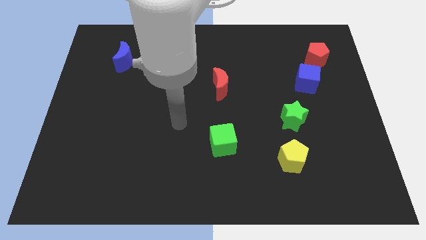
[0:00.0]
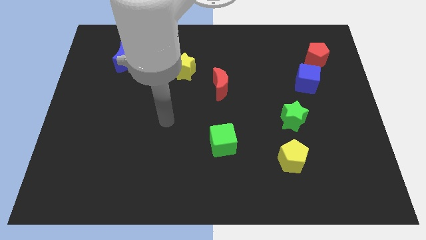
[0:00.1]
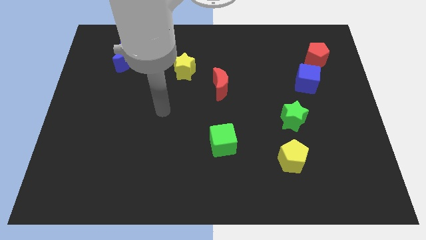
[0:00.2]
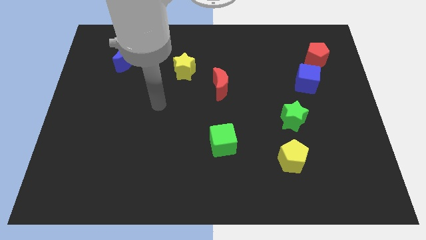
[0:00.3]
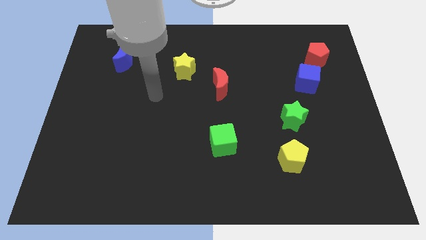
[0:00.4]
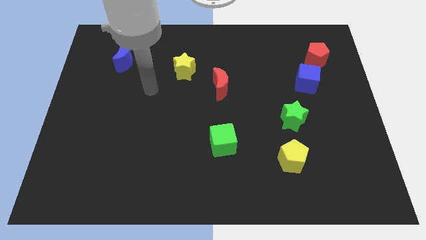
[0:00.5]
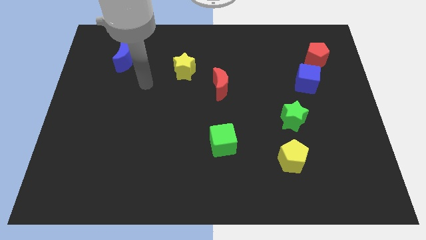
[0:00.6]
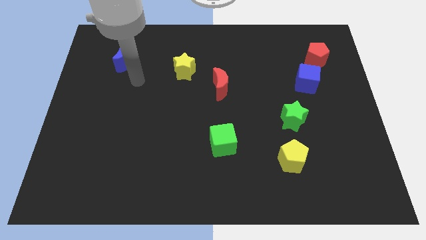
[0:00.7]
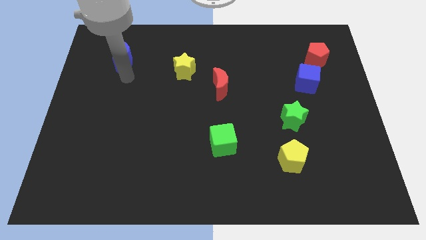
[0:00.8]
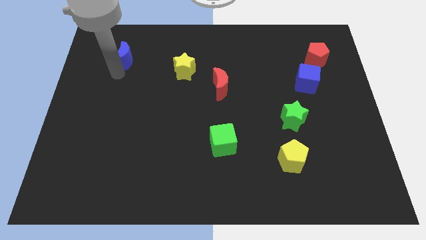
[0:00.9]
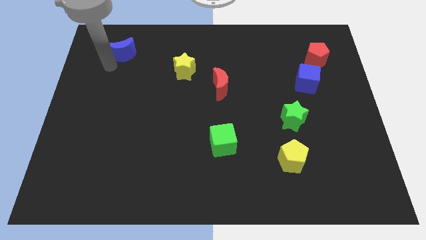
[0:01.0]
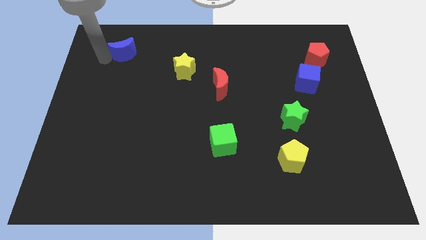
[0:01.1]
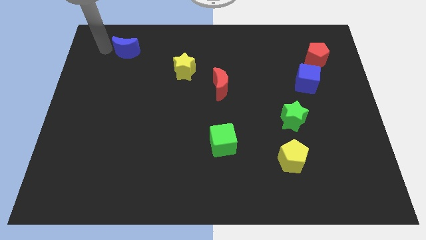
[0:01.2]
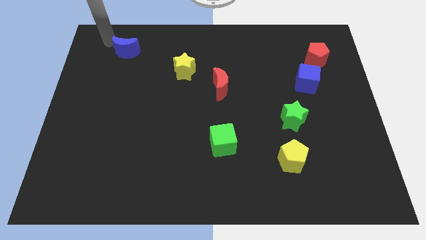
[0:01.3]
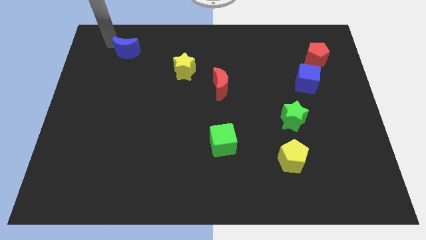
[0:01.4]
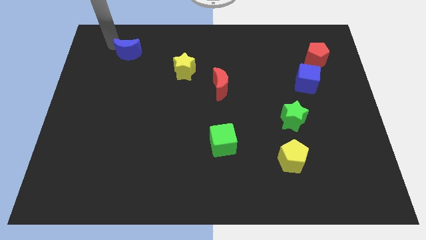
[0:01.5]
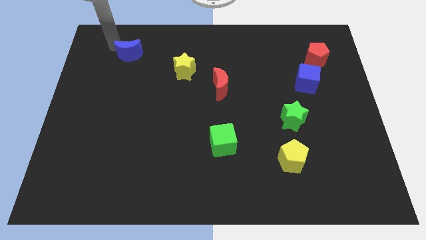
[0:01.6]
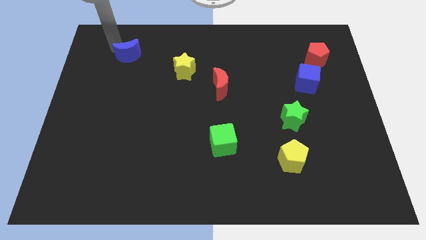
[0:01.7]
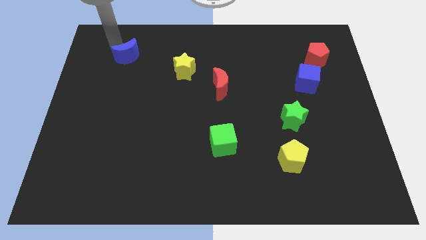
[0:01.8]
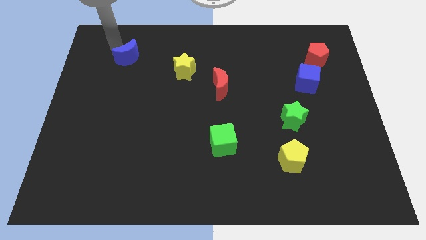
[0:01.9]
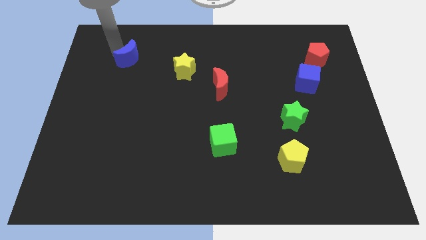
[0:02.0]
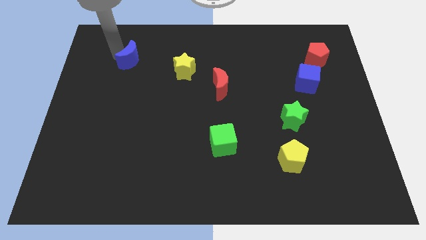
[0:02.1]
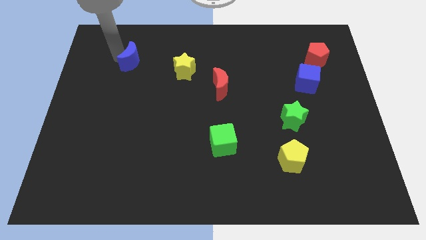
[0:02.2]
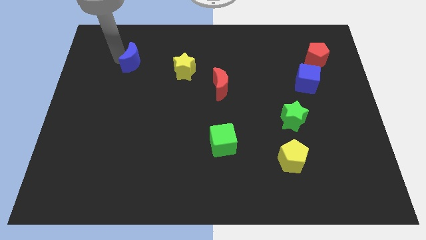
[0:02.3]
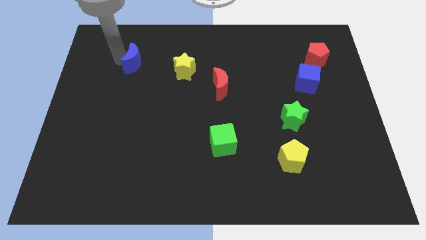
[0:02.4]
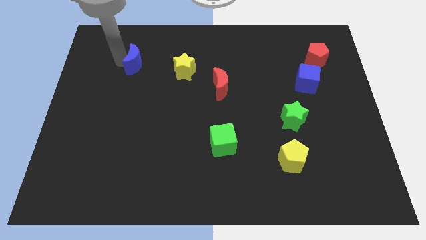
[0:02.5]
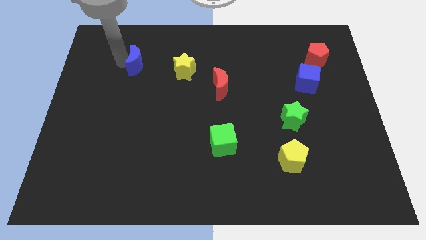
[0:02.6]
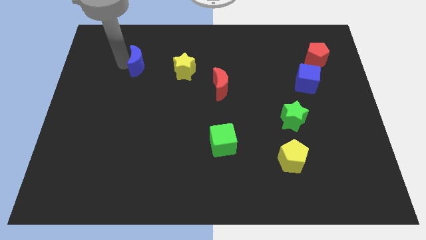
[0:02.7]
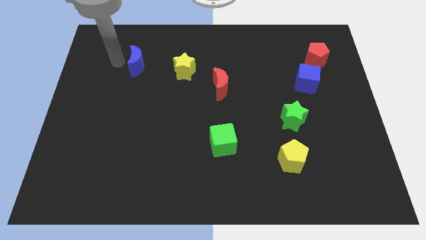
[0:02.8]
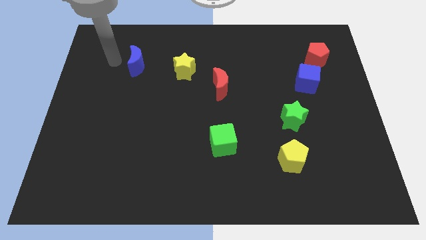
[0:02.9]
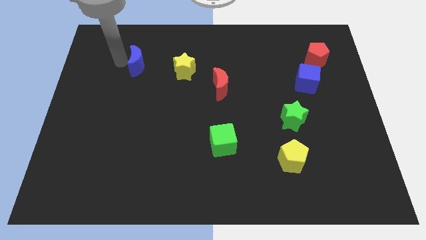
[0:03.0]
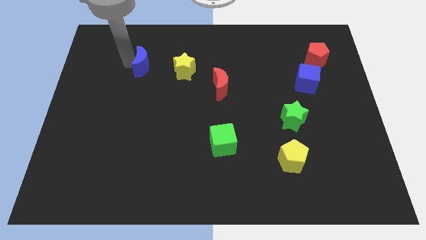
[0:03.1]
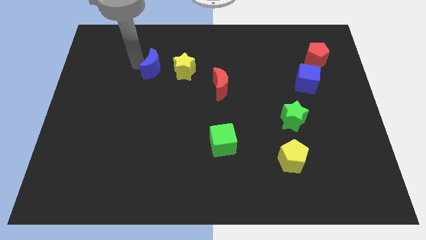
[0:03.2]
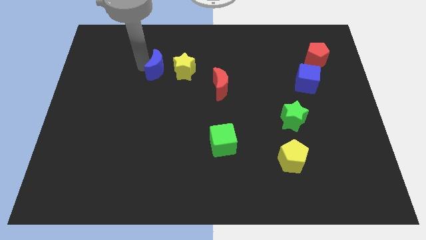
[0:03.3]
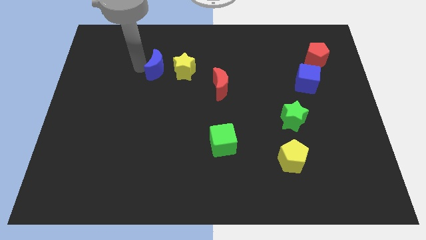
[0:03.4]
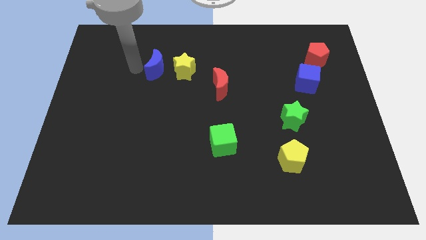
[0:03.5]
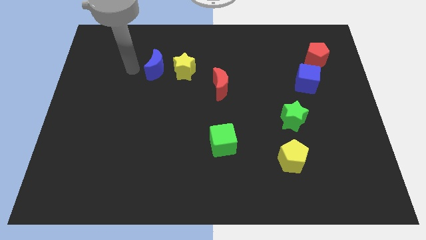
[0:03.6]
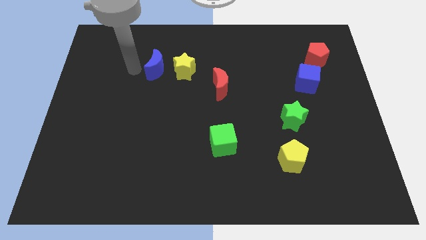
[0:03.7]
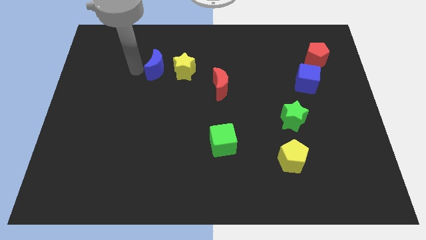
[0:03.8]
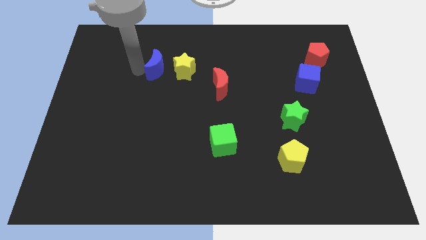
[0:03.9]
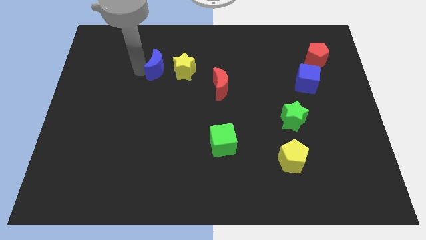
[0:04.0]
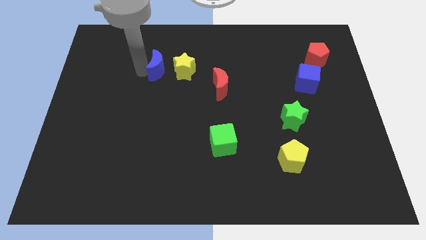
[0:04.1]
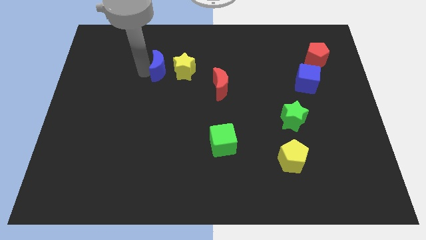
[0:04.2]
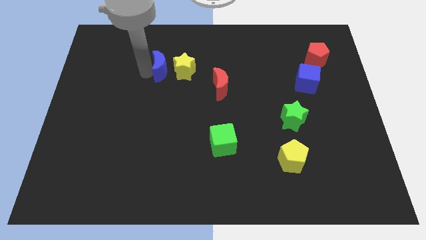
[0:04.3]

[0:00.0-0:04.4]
slide the blue moon to the yellow star

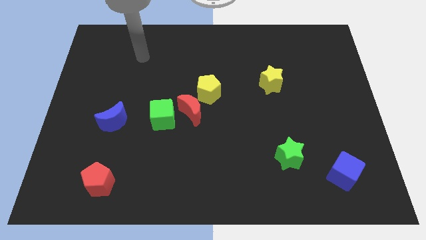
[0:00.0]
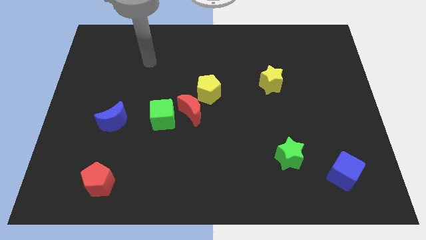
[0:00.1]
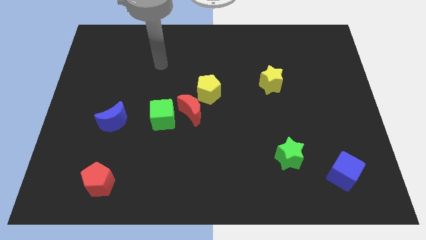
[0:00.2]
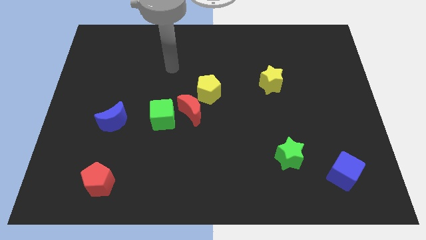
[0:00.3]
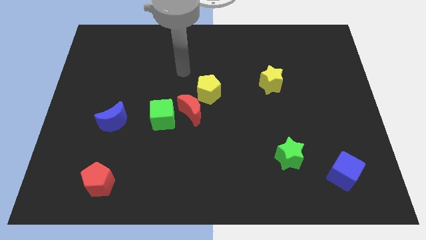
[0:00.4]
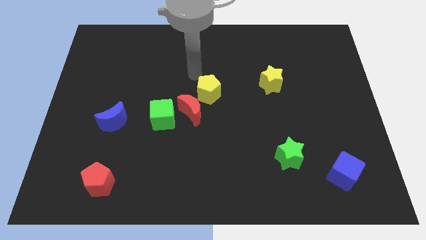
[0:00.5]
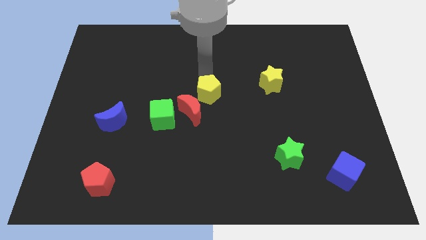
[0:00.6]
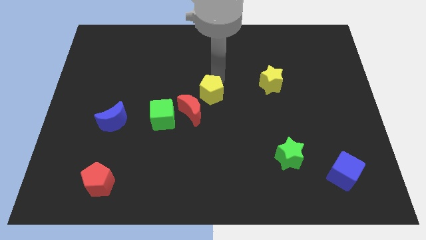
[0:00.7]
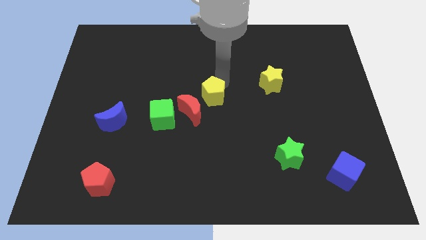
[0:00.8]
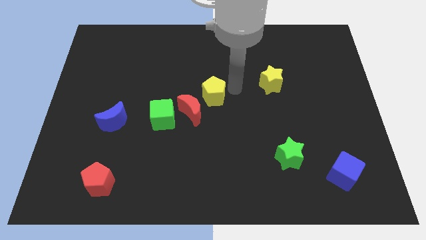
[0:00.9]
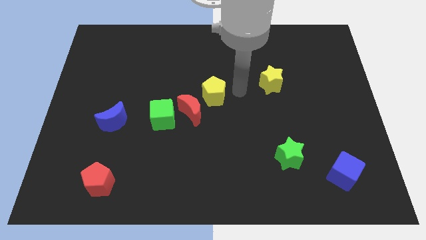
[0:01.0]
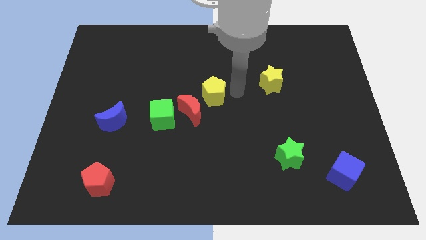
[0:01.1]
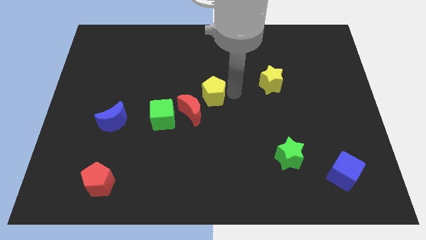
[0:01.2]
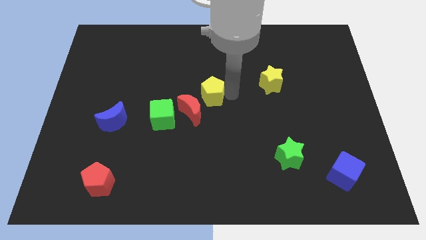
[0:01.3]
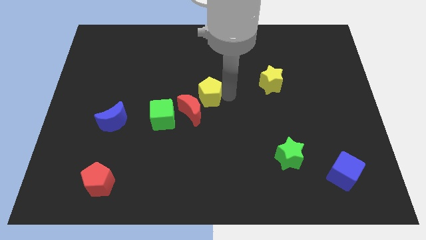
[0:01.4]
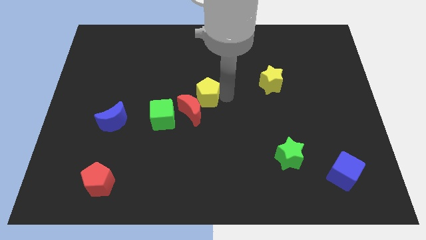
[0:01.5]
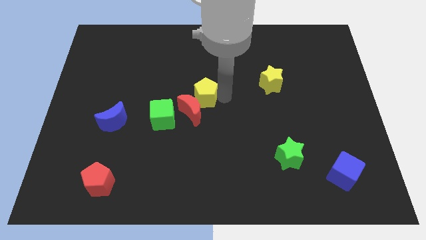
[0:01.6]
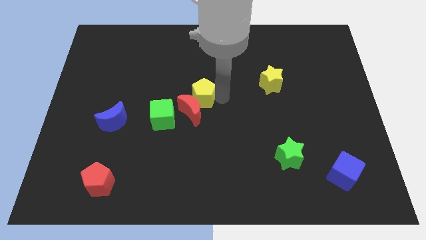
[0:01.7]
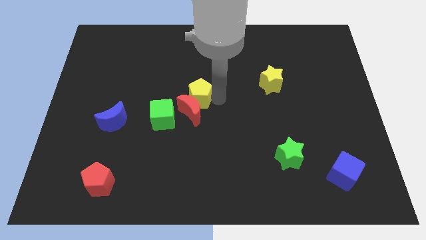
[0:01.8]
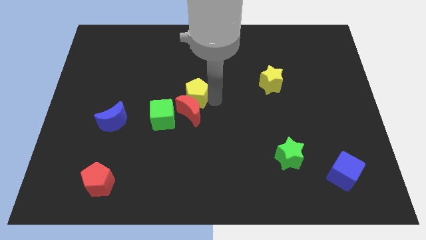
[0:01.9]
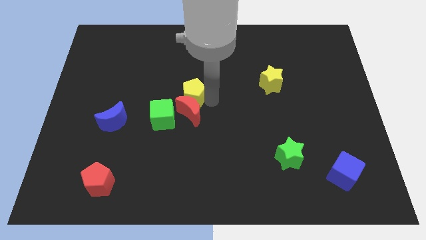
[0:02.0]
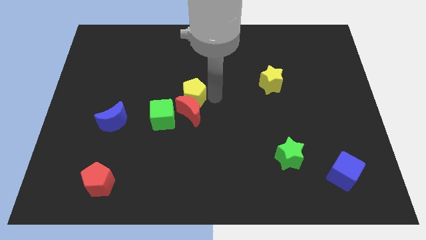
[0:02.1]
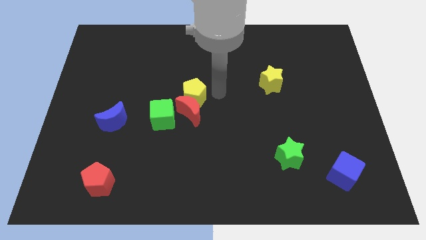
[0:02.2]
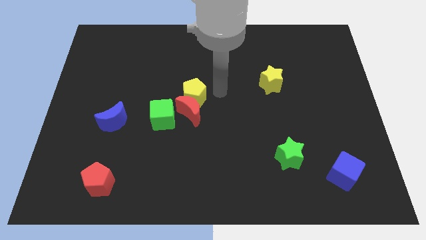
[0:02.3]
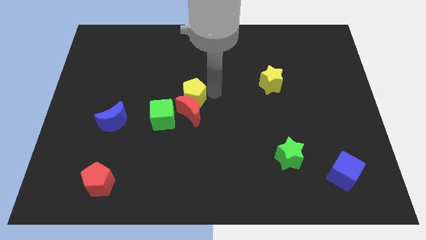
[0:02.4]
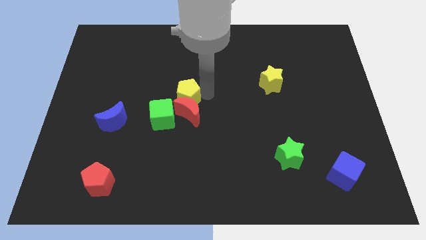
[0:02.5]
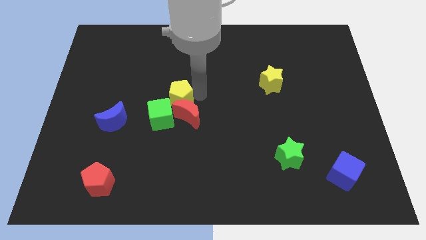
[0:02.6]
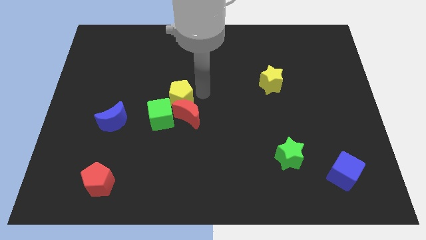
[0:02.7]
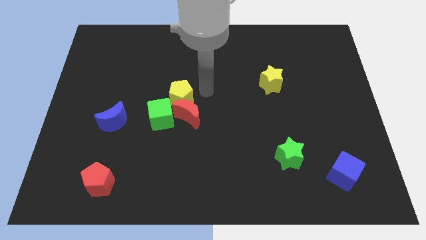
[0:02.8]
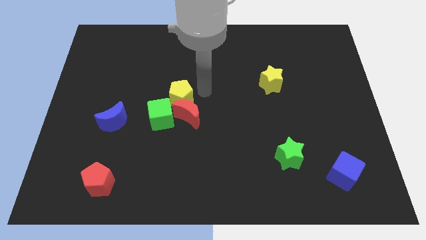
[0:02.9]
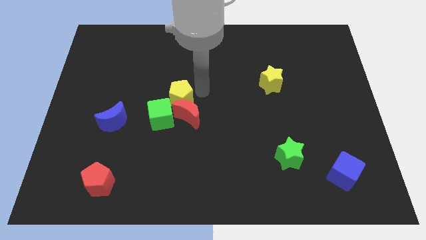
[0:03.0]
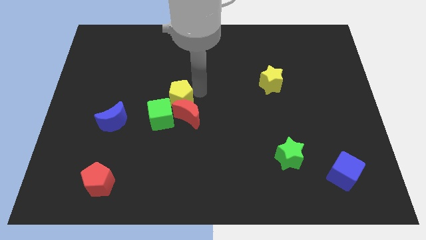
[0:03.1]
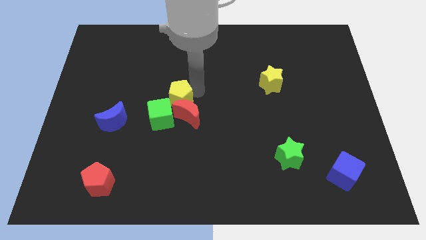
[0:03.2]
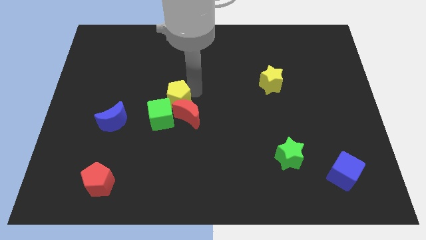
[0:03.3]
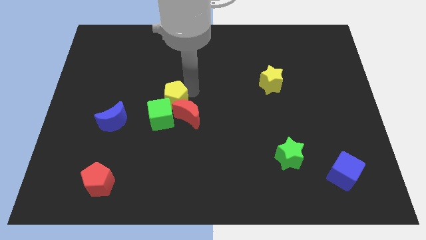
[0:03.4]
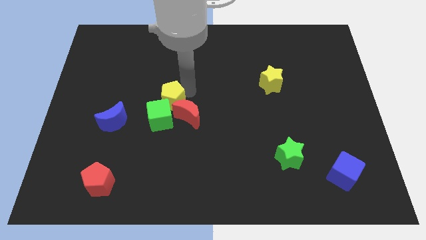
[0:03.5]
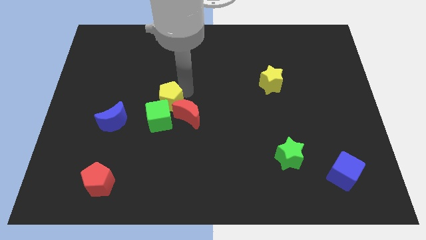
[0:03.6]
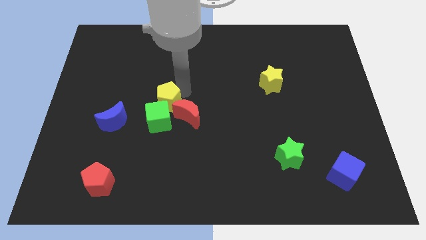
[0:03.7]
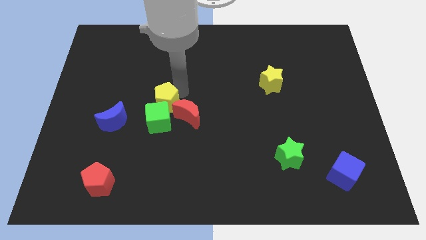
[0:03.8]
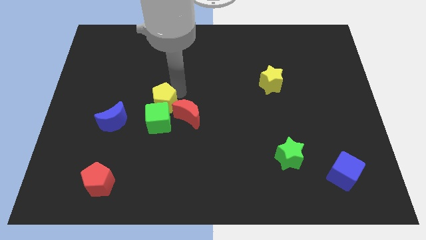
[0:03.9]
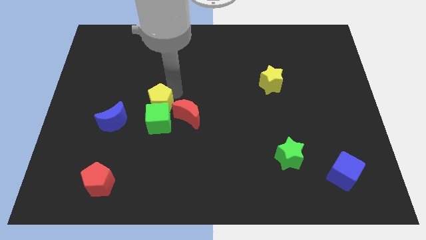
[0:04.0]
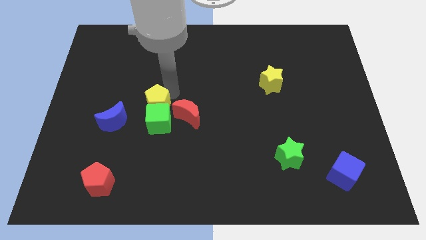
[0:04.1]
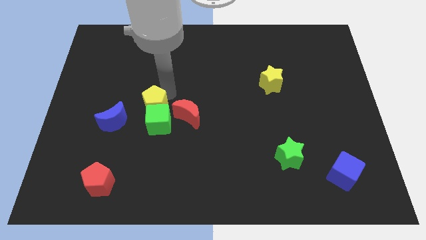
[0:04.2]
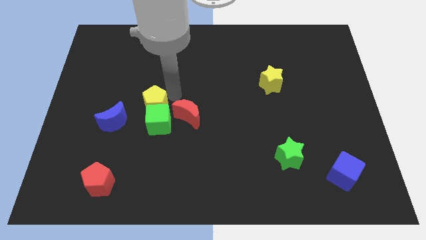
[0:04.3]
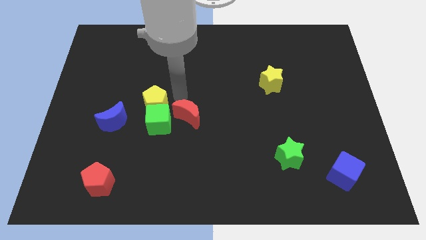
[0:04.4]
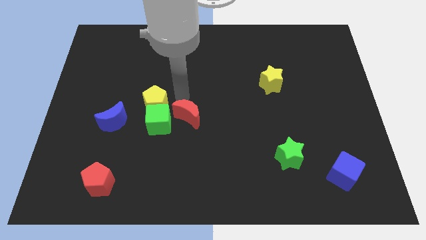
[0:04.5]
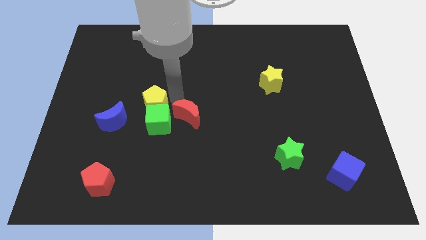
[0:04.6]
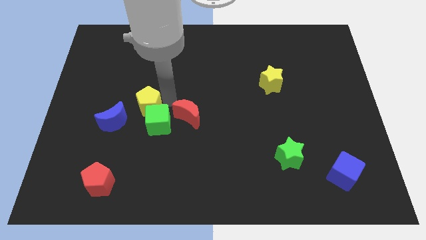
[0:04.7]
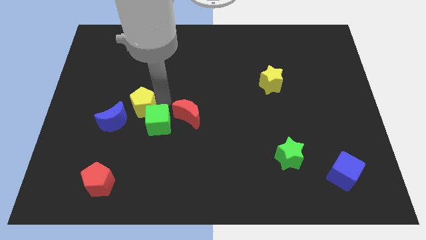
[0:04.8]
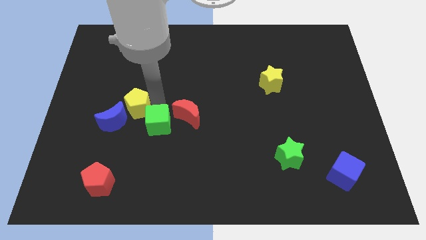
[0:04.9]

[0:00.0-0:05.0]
slide the yellow pentagon to the blue moon
